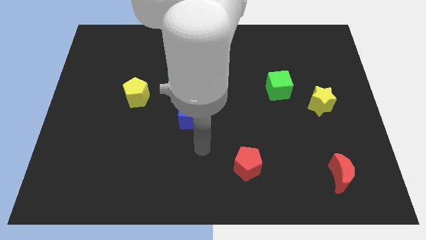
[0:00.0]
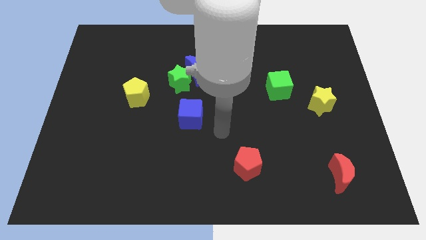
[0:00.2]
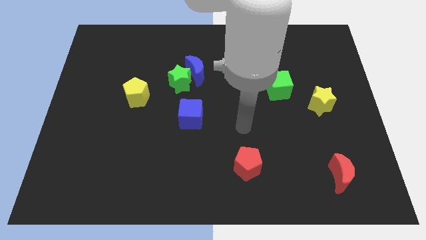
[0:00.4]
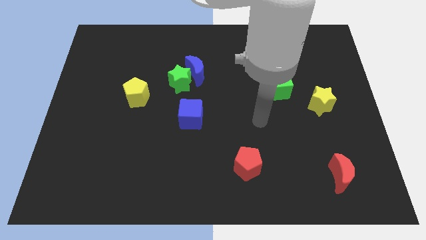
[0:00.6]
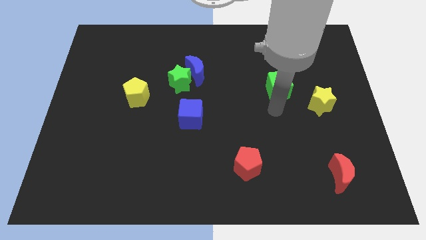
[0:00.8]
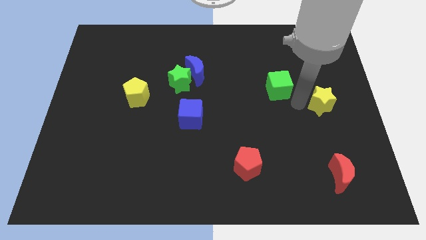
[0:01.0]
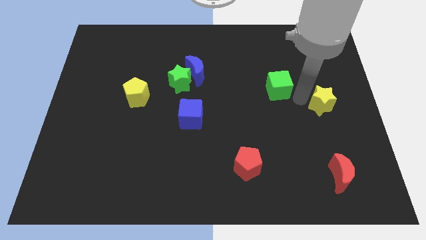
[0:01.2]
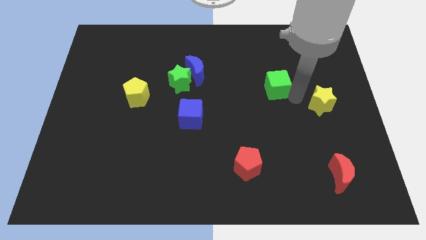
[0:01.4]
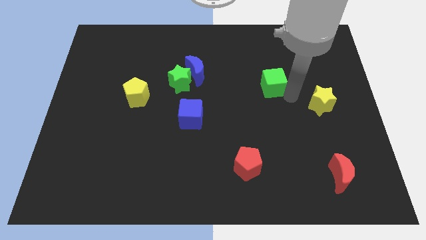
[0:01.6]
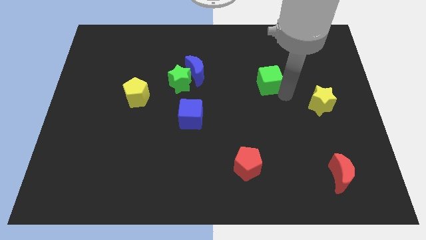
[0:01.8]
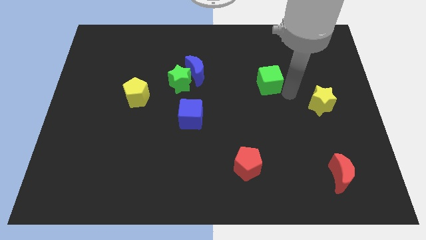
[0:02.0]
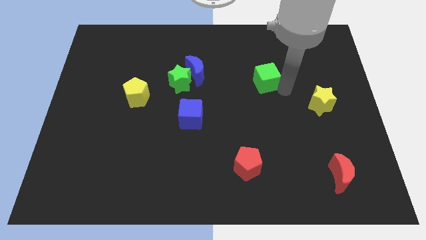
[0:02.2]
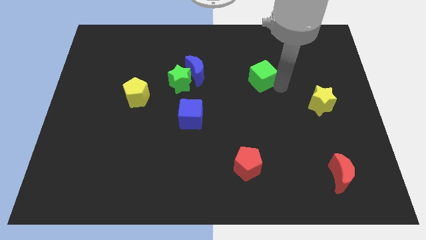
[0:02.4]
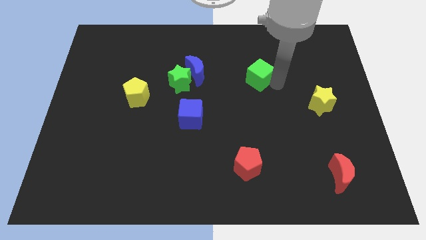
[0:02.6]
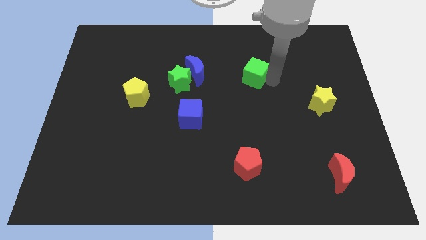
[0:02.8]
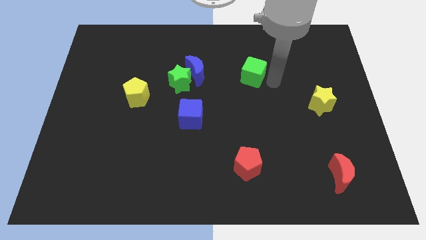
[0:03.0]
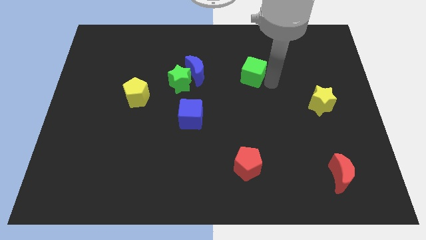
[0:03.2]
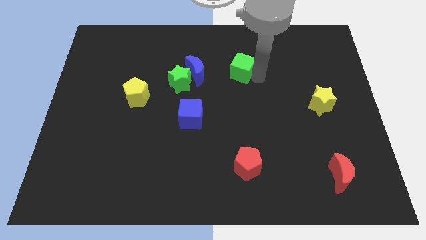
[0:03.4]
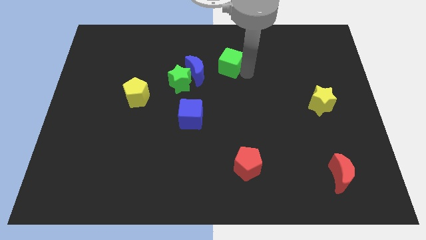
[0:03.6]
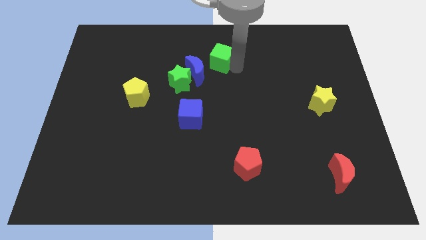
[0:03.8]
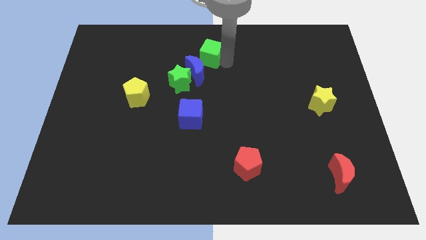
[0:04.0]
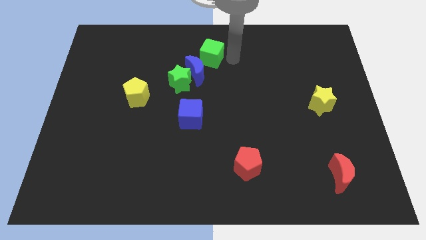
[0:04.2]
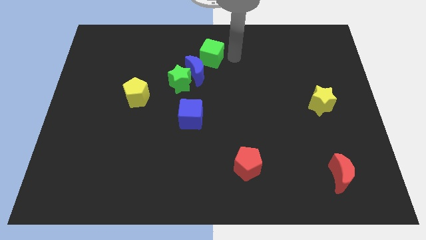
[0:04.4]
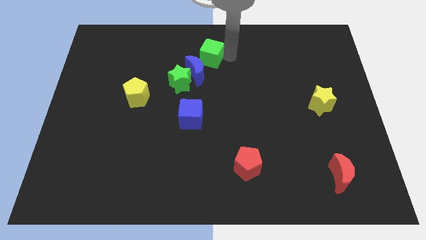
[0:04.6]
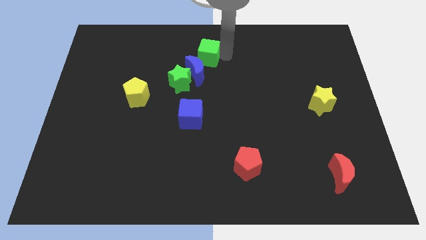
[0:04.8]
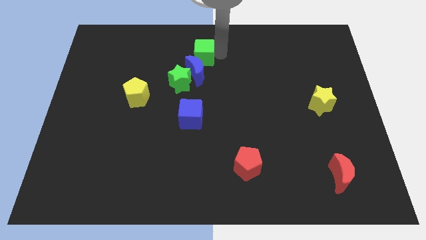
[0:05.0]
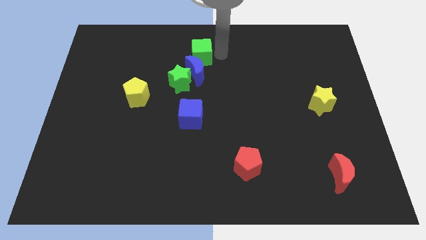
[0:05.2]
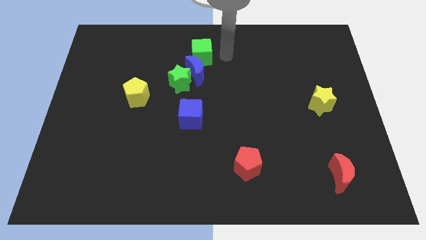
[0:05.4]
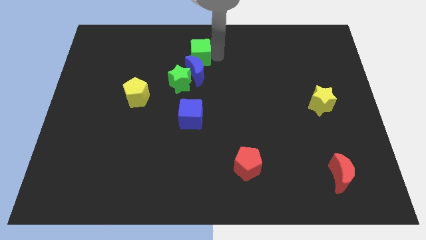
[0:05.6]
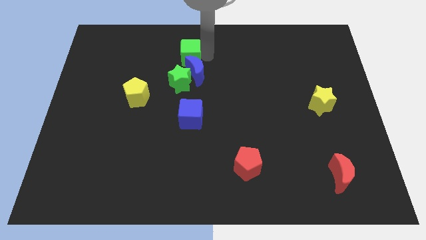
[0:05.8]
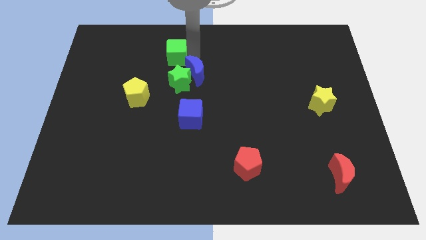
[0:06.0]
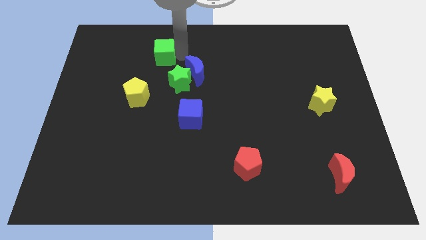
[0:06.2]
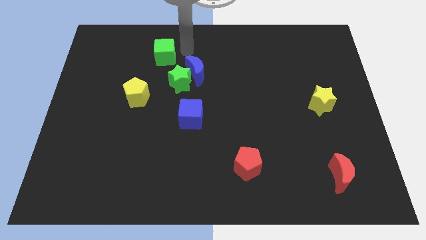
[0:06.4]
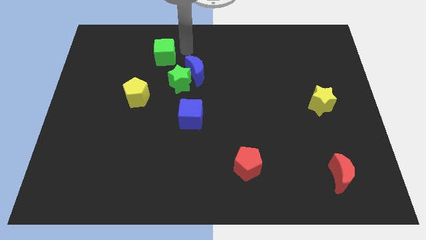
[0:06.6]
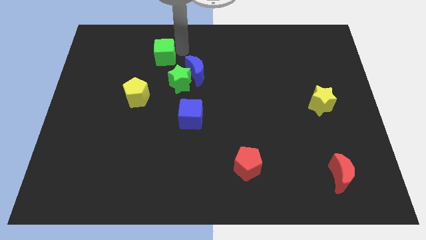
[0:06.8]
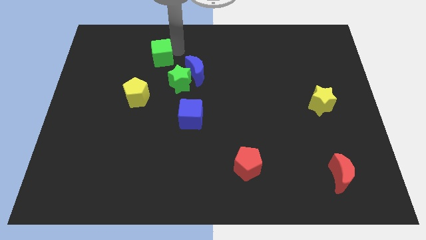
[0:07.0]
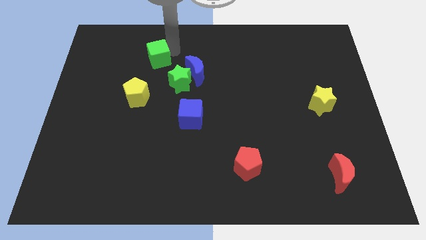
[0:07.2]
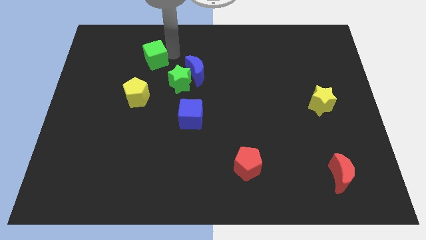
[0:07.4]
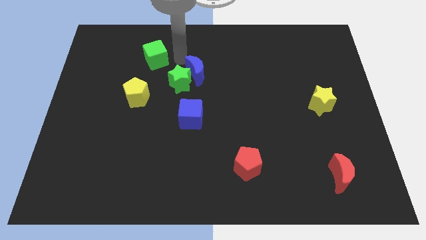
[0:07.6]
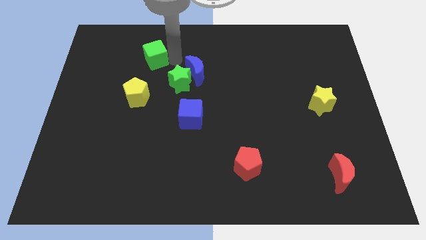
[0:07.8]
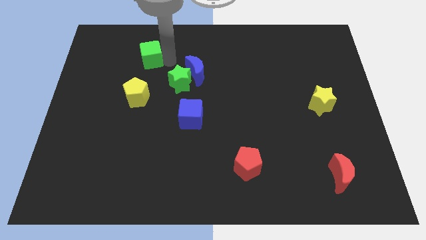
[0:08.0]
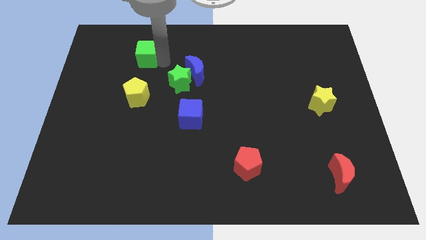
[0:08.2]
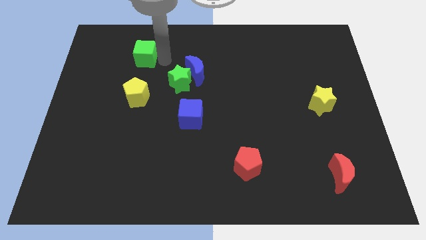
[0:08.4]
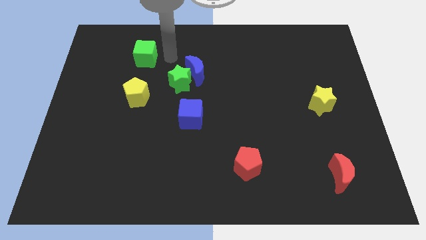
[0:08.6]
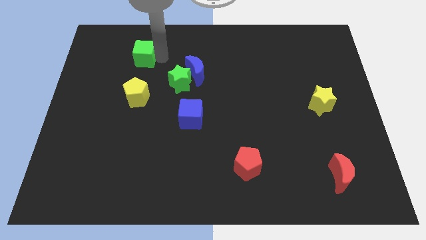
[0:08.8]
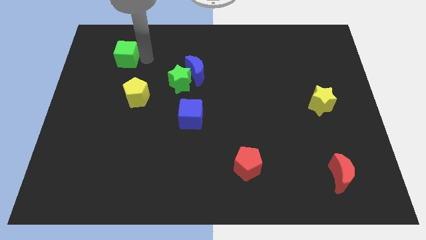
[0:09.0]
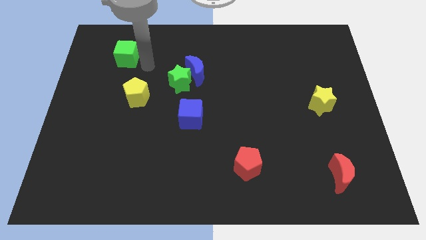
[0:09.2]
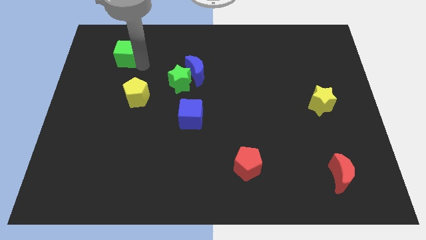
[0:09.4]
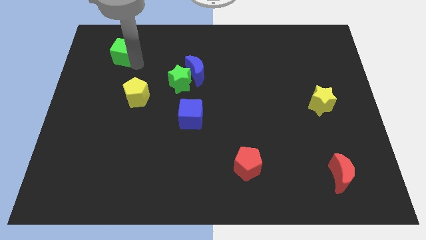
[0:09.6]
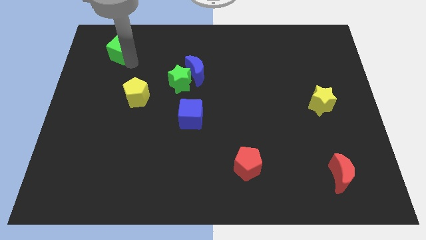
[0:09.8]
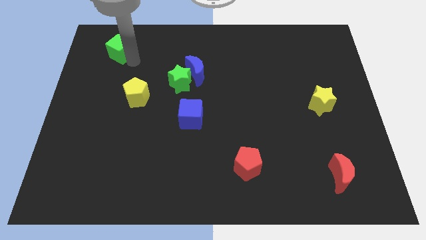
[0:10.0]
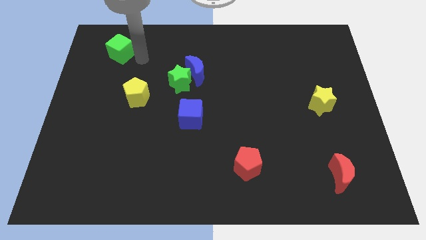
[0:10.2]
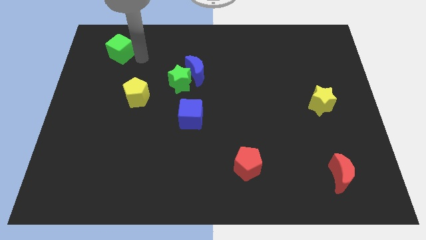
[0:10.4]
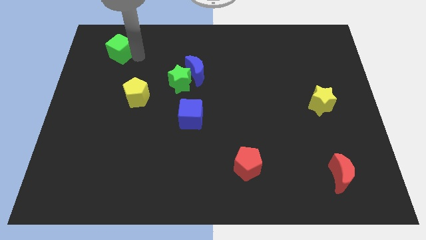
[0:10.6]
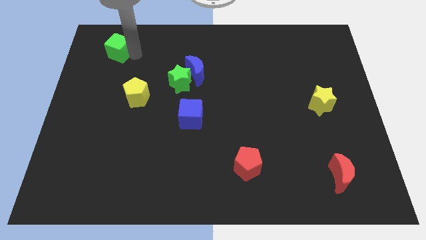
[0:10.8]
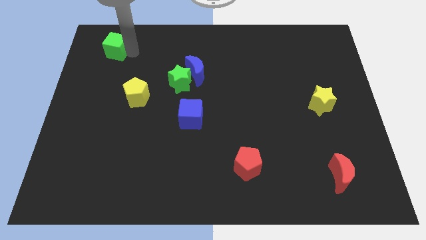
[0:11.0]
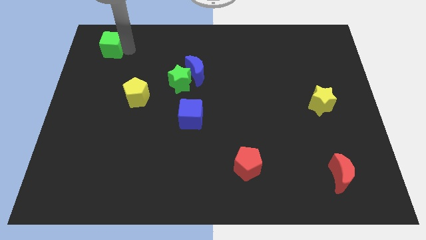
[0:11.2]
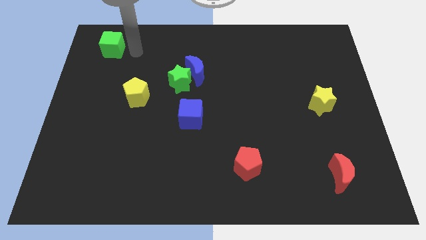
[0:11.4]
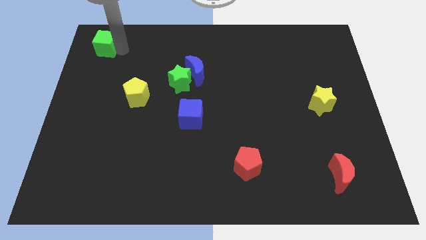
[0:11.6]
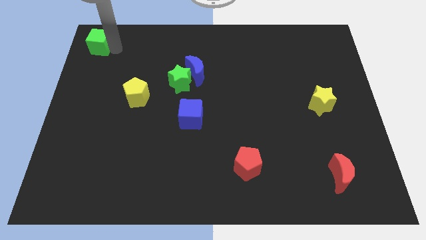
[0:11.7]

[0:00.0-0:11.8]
put the green cube to the upper left corner
